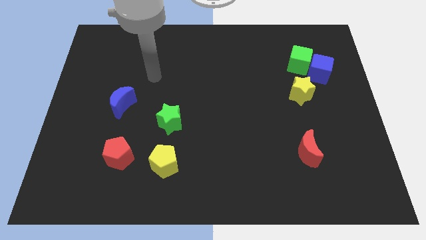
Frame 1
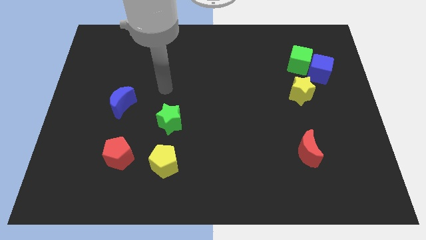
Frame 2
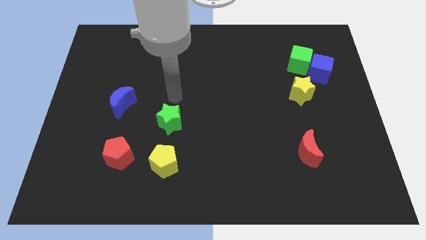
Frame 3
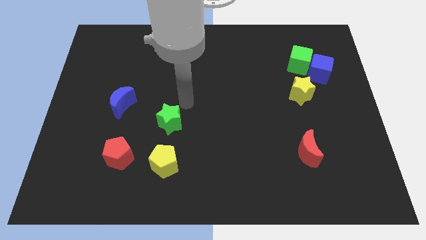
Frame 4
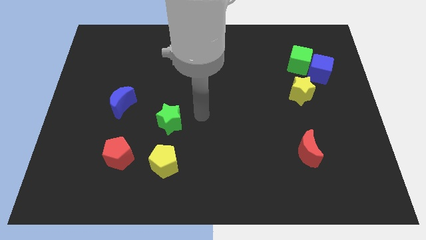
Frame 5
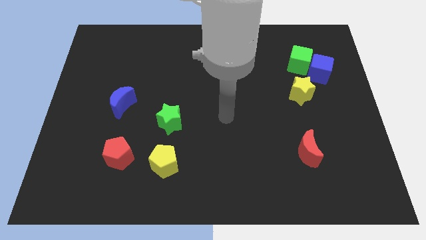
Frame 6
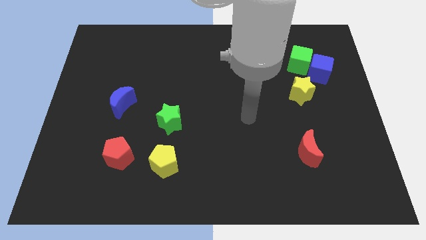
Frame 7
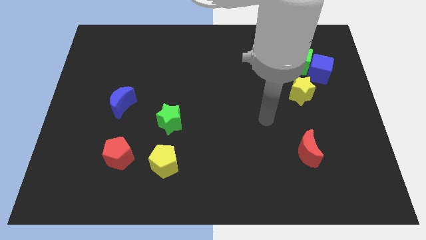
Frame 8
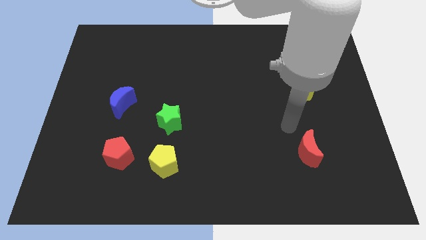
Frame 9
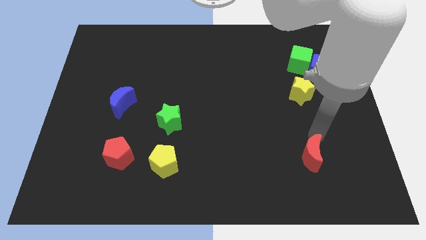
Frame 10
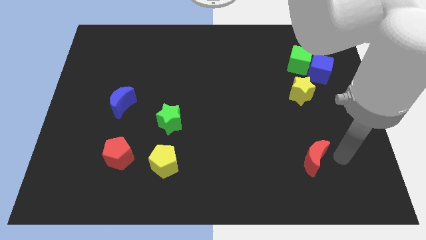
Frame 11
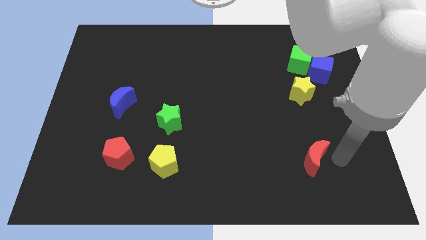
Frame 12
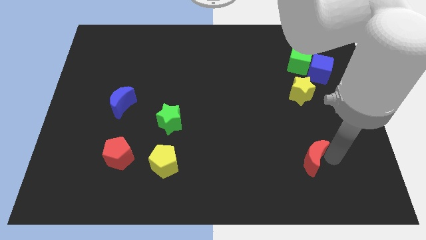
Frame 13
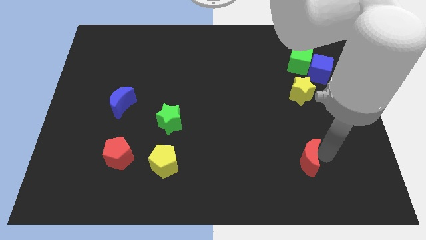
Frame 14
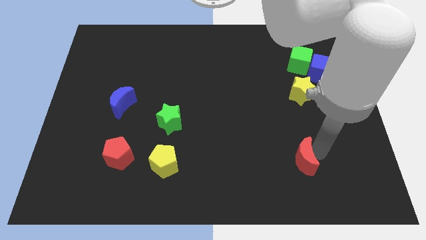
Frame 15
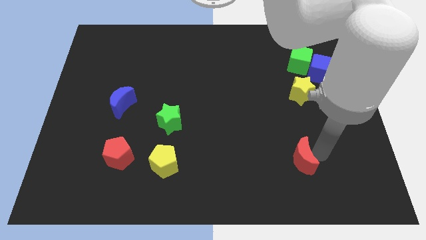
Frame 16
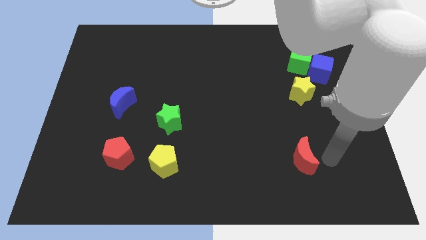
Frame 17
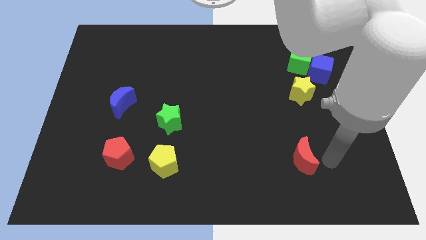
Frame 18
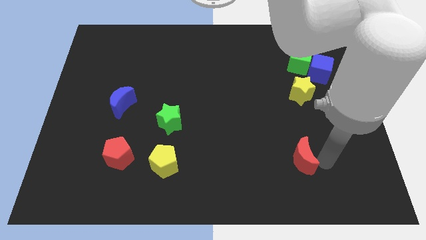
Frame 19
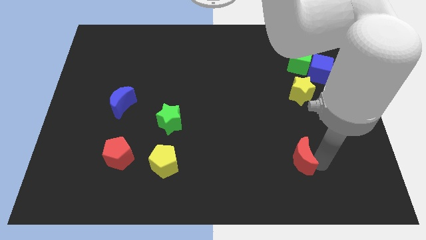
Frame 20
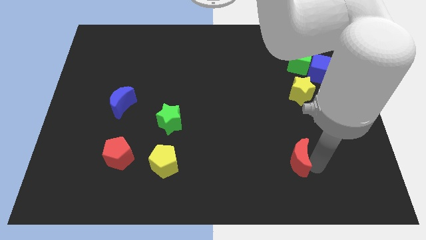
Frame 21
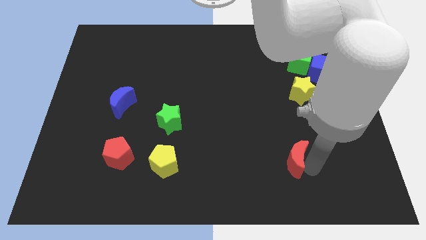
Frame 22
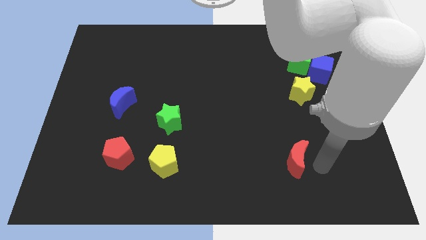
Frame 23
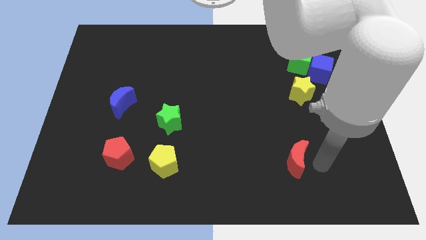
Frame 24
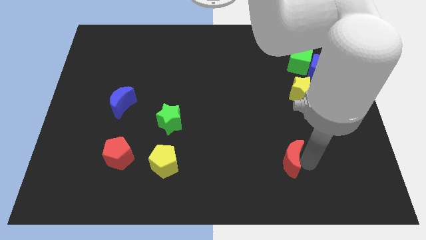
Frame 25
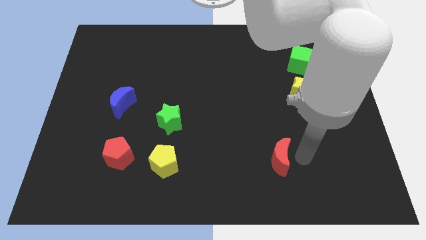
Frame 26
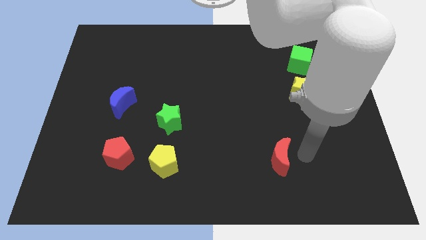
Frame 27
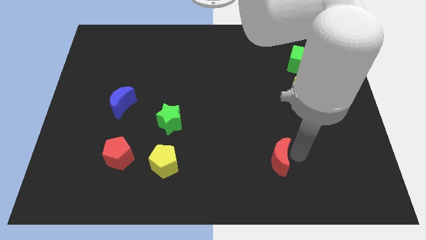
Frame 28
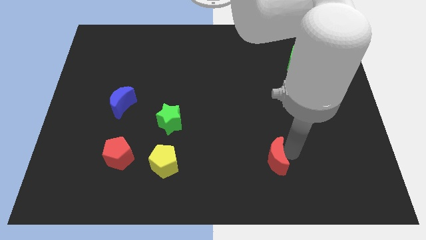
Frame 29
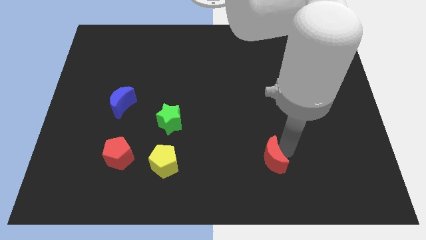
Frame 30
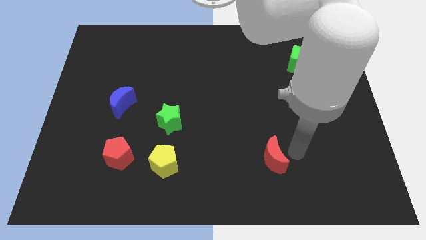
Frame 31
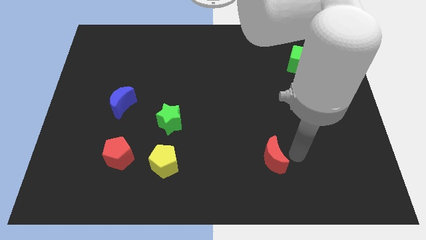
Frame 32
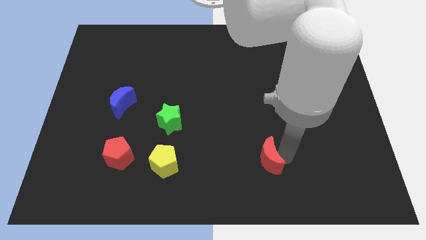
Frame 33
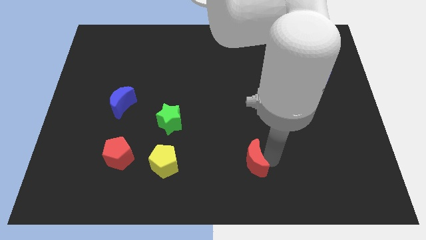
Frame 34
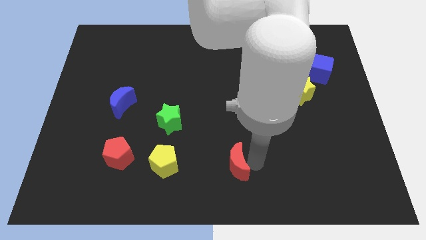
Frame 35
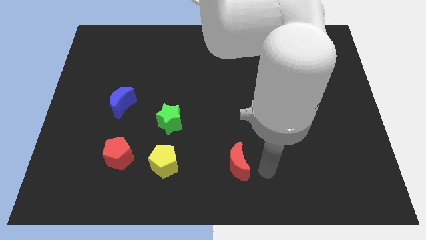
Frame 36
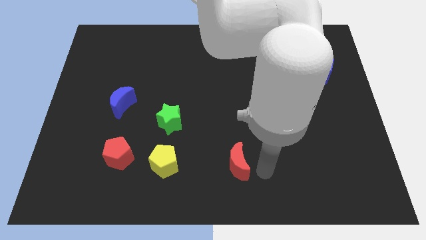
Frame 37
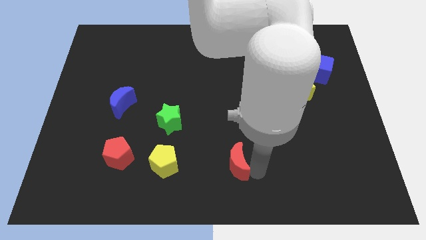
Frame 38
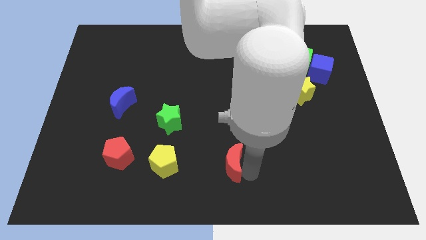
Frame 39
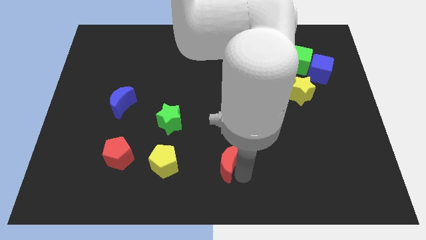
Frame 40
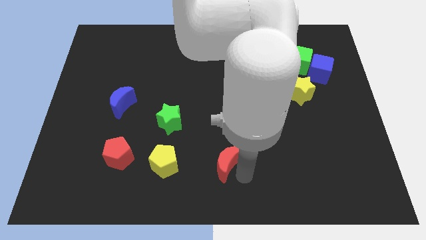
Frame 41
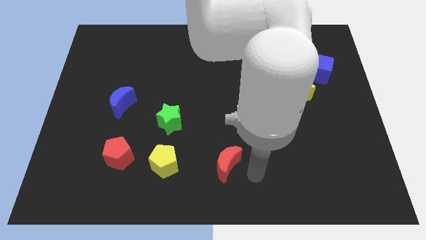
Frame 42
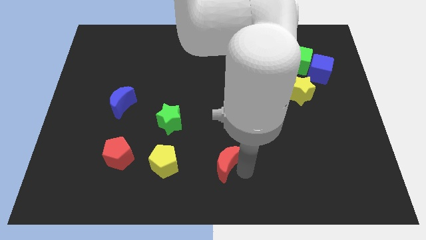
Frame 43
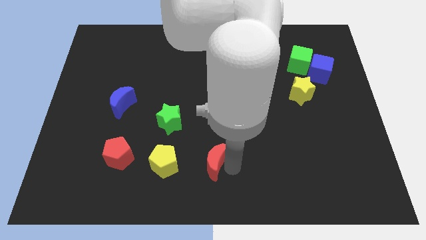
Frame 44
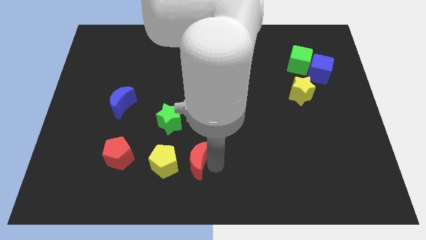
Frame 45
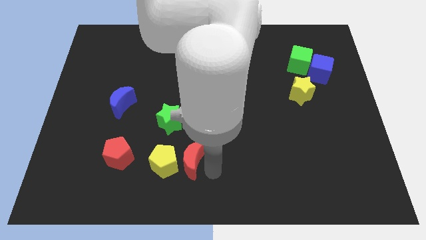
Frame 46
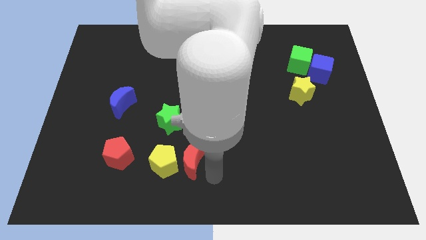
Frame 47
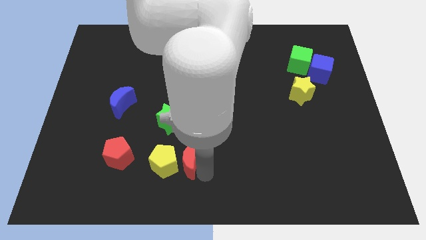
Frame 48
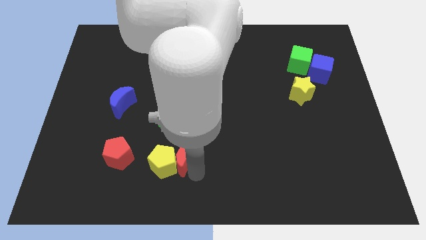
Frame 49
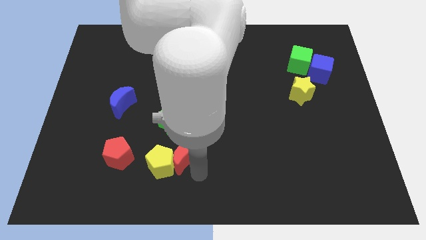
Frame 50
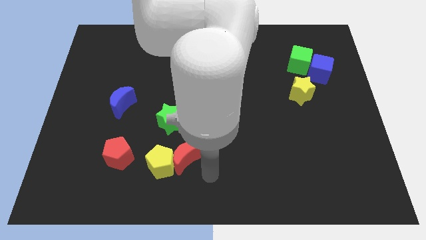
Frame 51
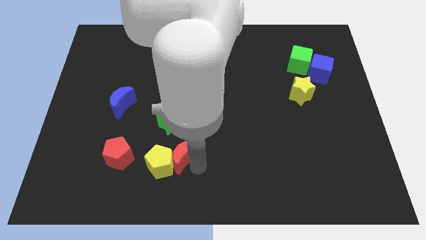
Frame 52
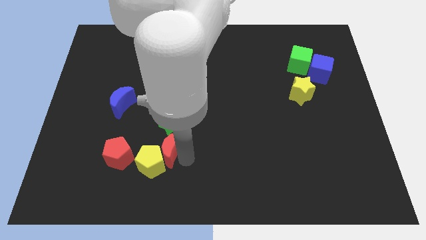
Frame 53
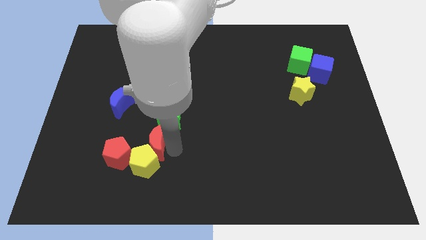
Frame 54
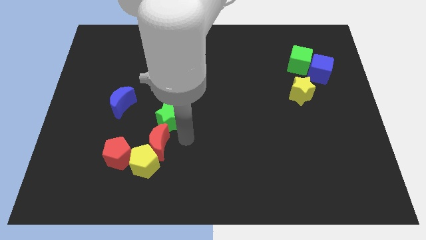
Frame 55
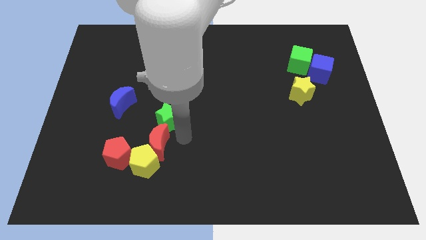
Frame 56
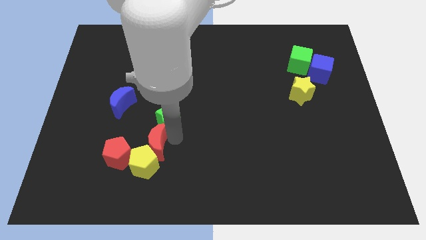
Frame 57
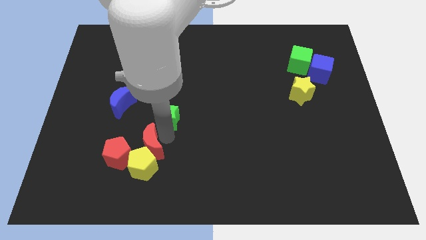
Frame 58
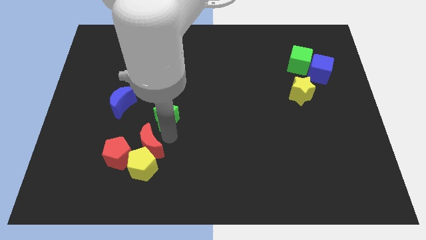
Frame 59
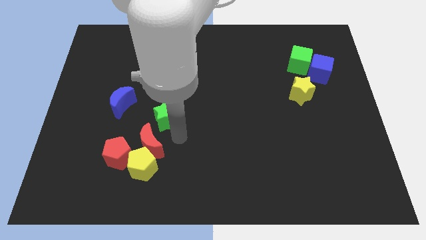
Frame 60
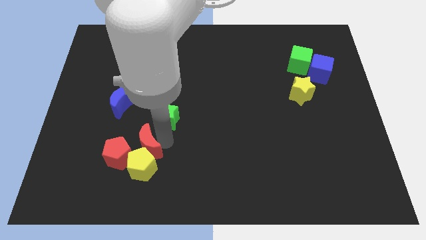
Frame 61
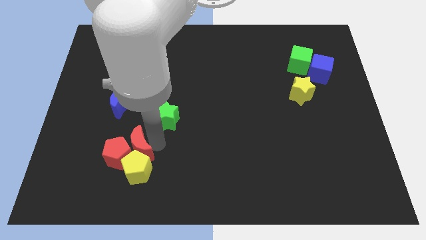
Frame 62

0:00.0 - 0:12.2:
slide the red moon towards the red pentagon
